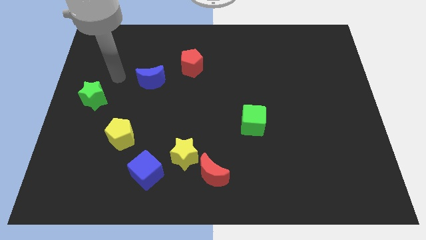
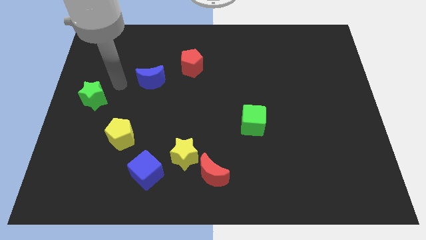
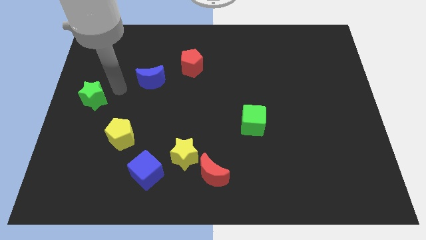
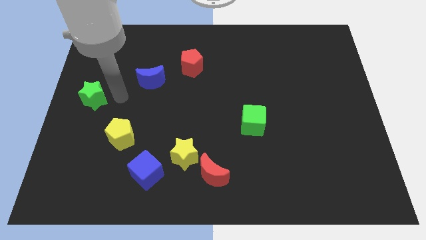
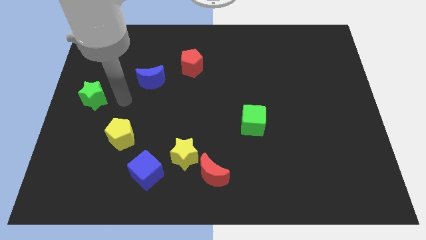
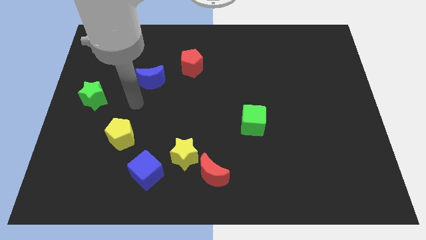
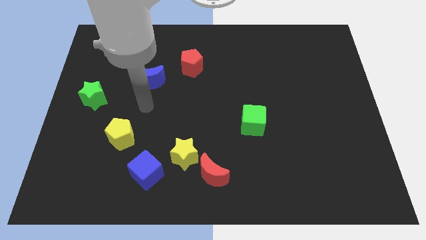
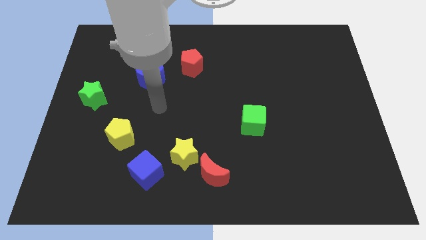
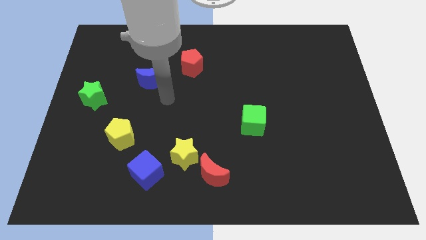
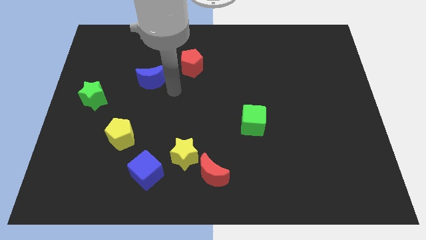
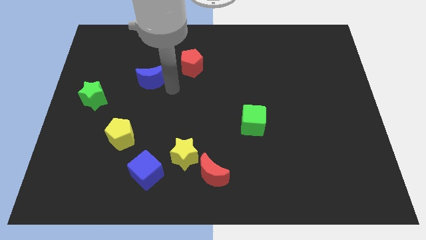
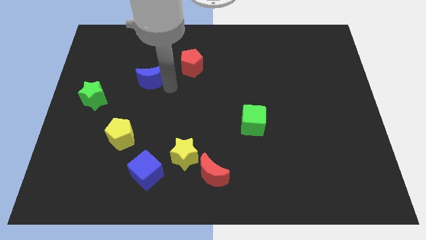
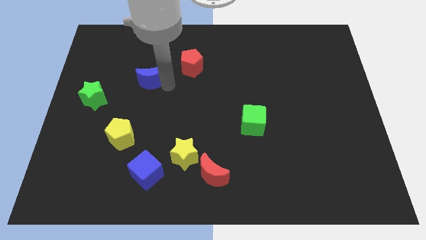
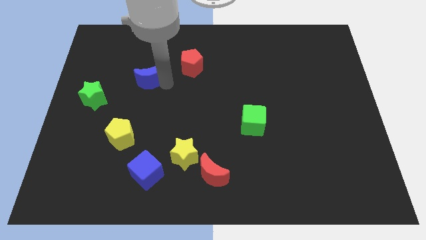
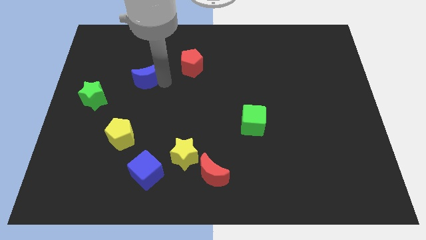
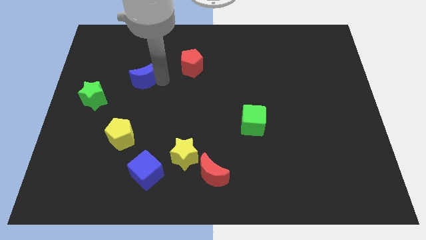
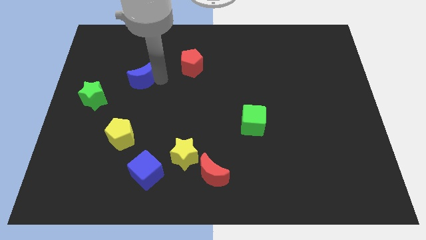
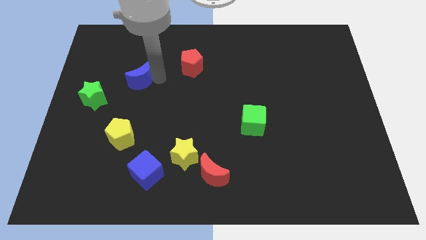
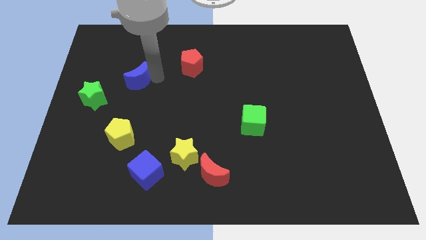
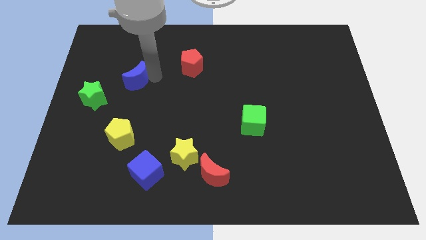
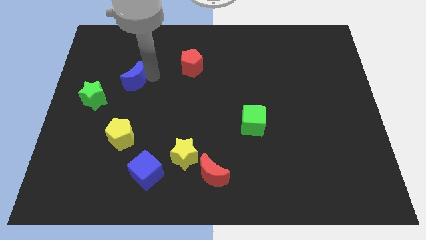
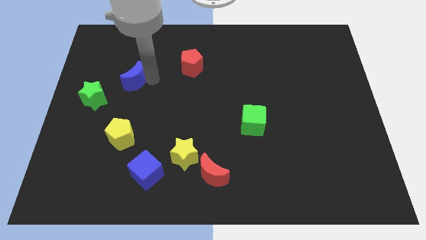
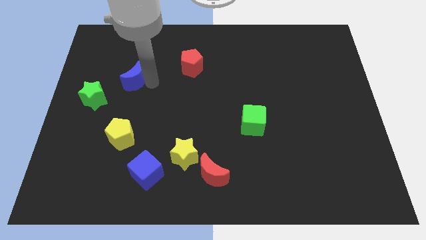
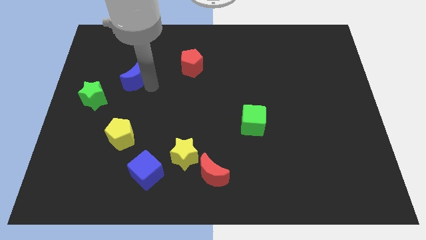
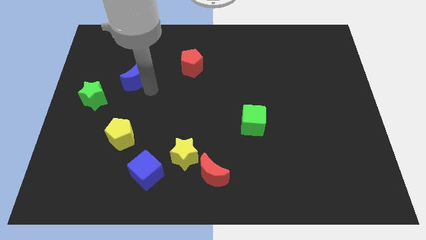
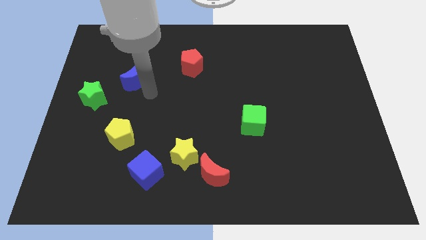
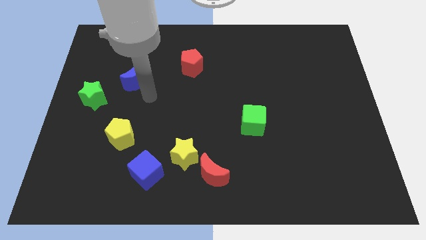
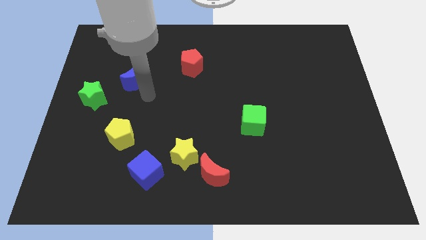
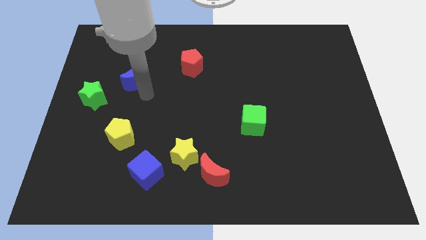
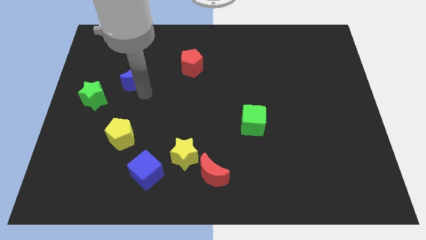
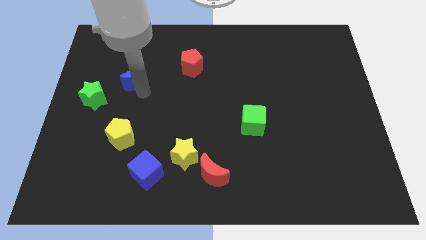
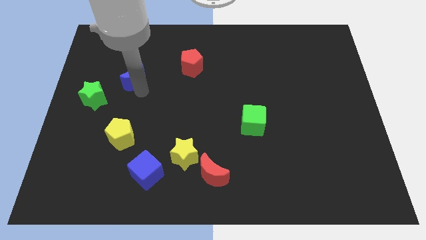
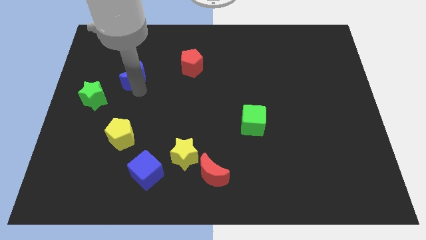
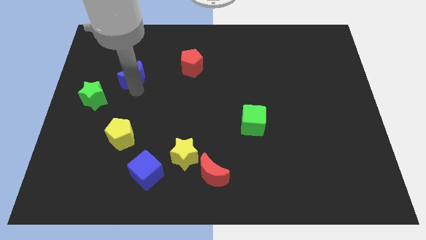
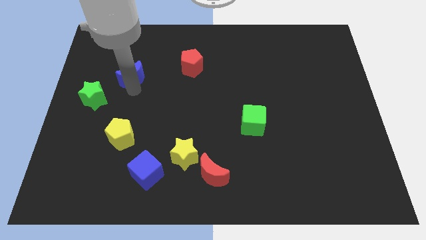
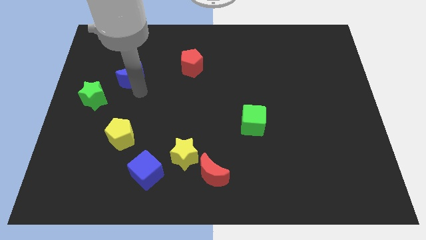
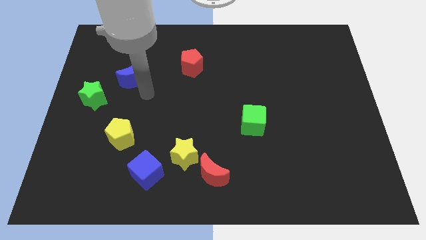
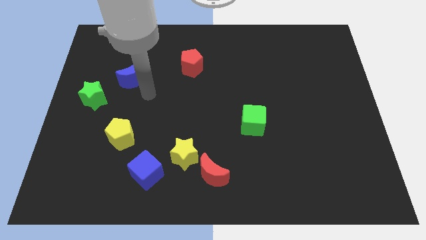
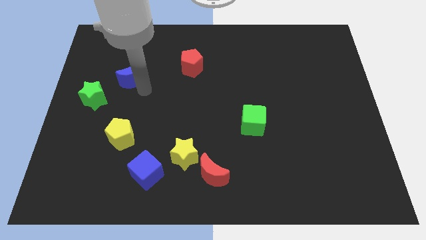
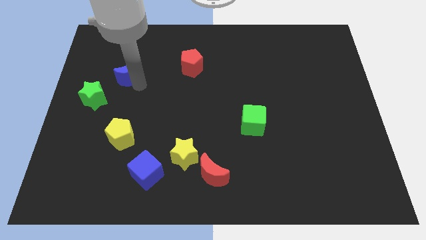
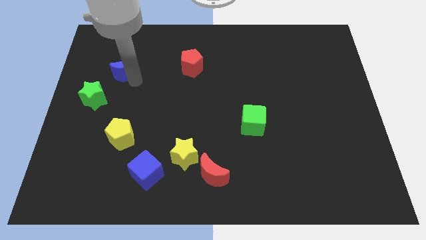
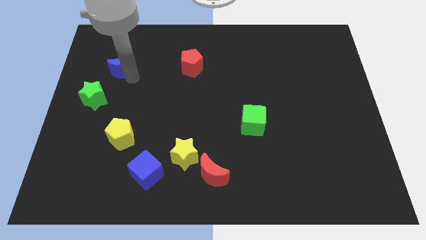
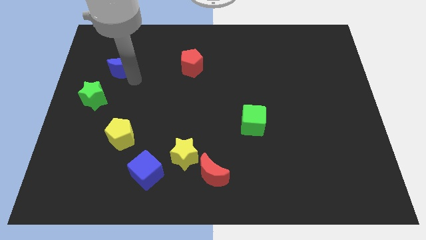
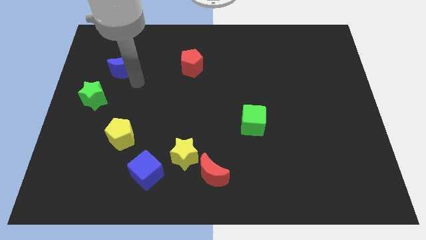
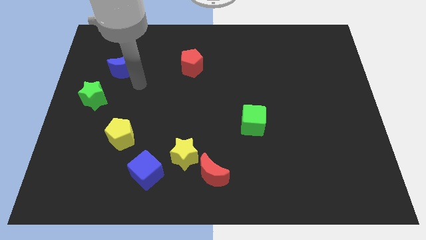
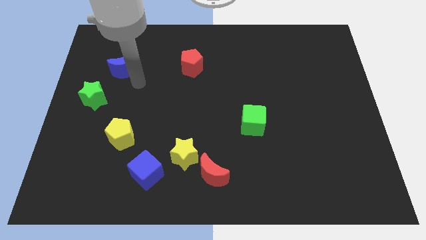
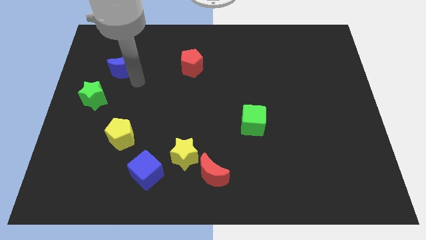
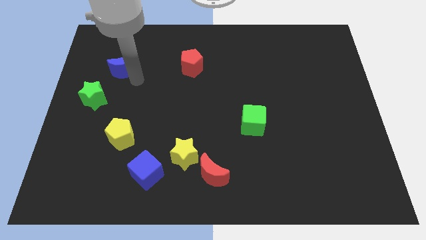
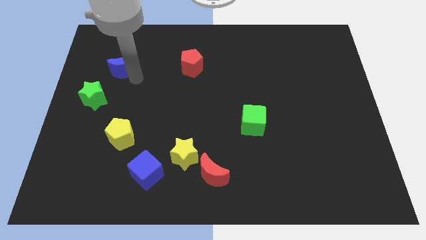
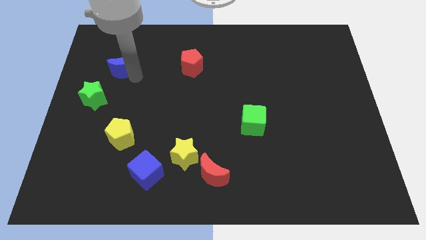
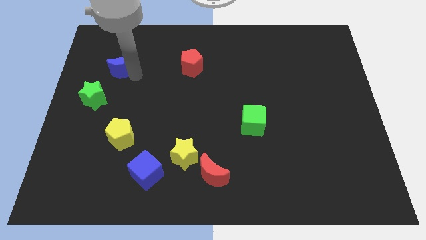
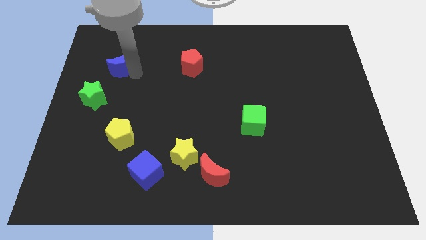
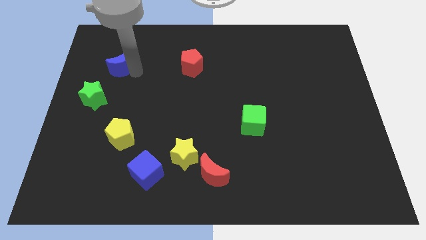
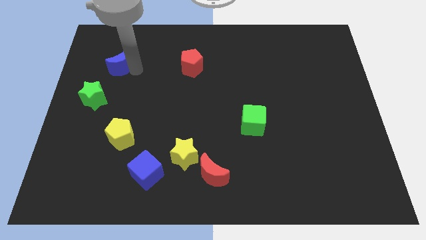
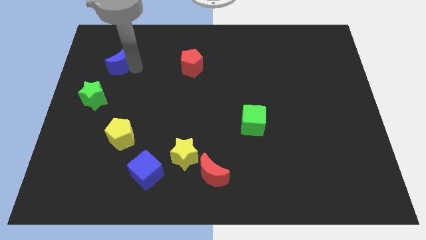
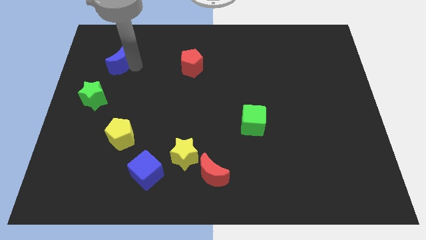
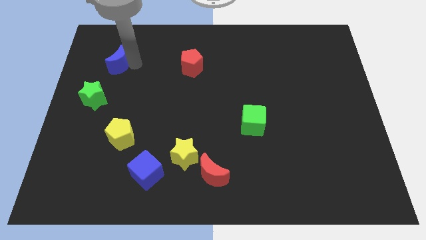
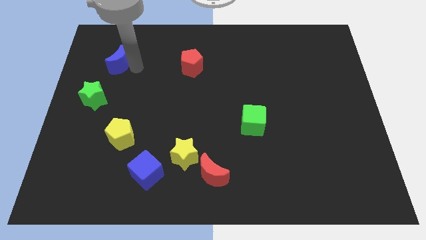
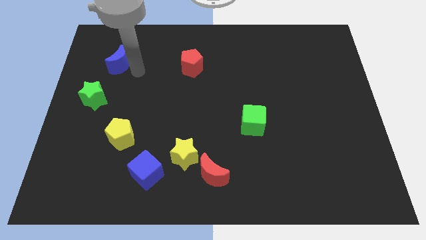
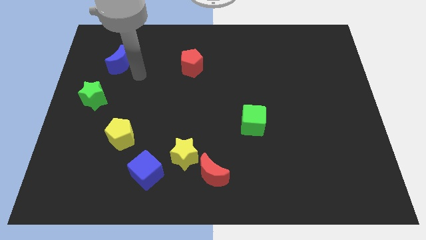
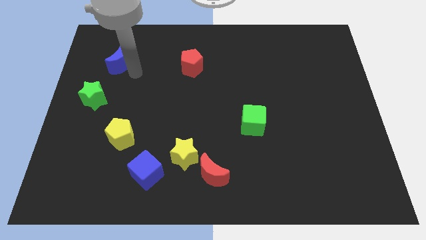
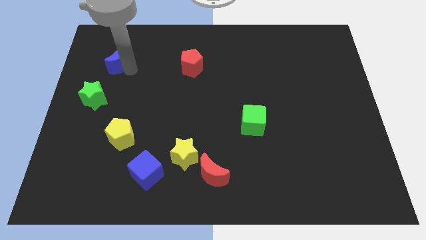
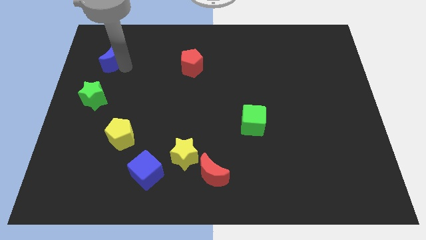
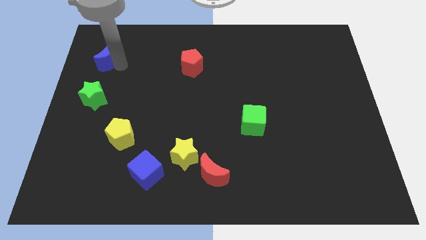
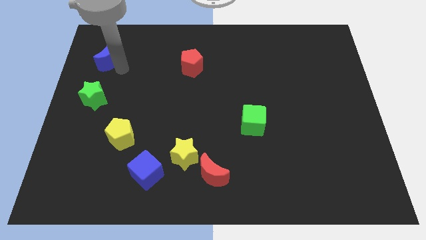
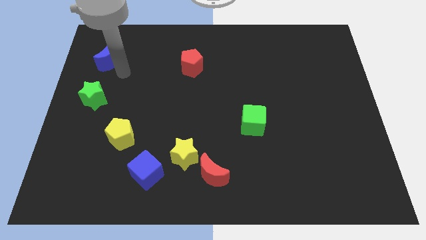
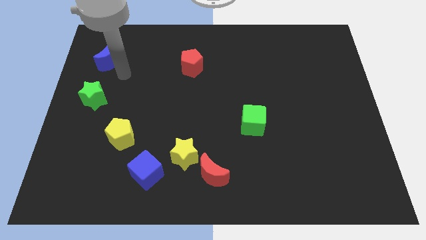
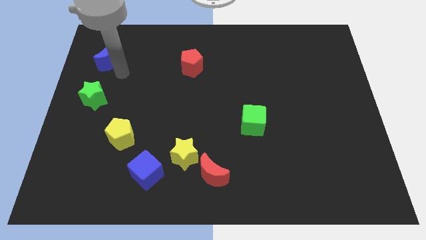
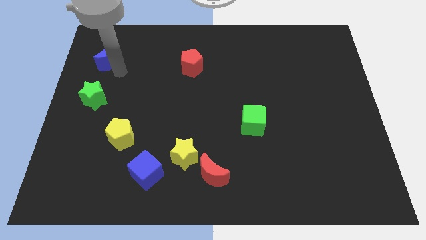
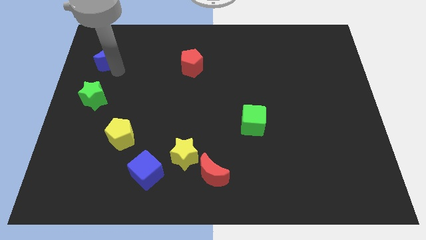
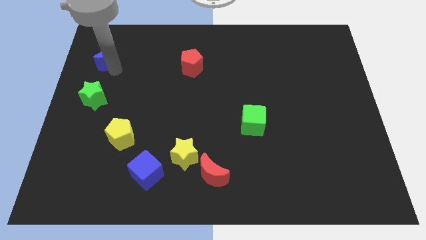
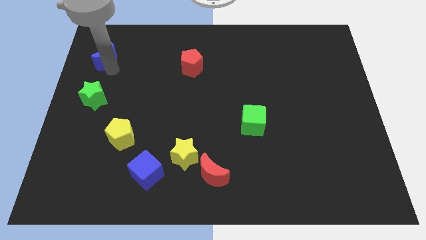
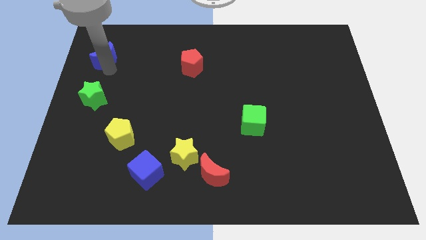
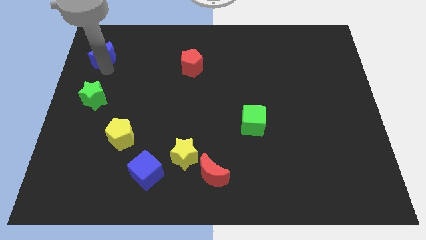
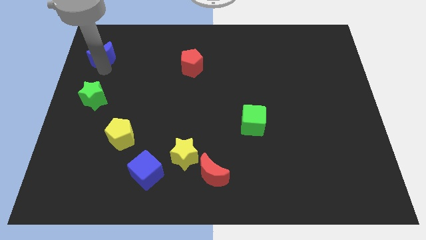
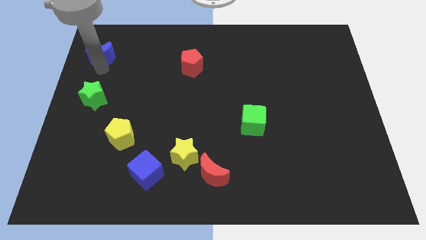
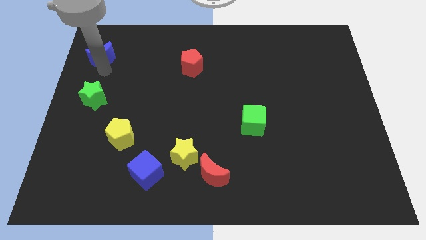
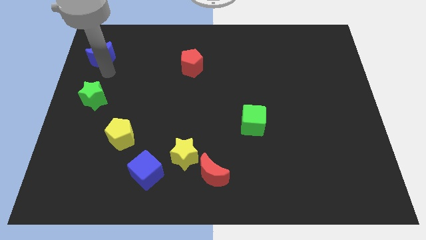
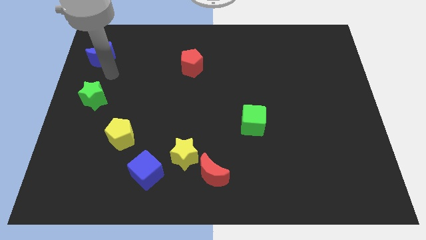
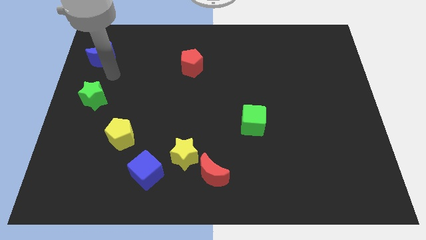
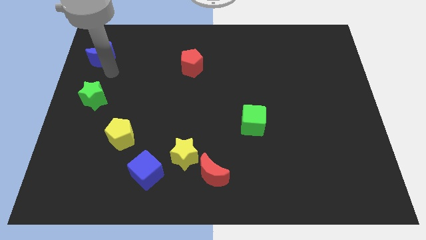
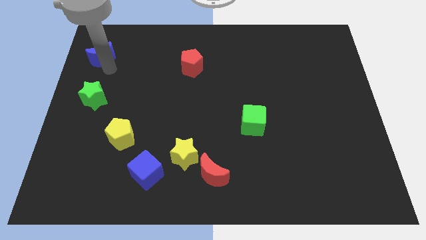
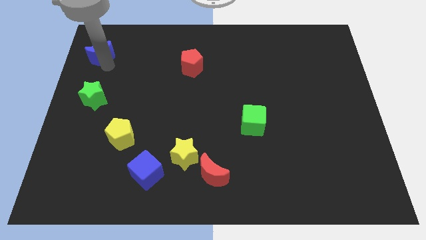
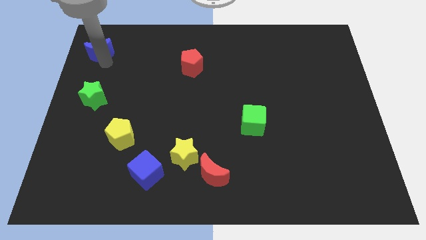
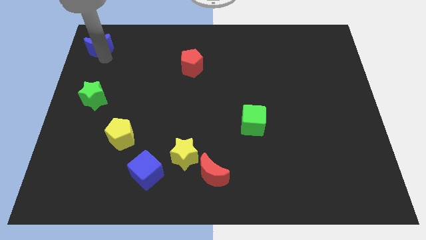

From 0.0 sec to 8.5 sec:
push the blue moon to the top left corner
